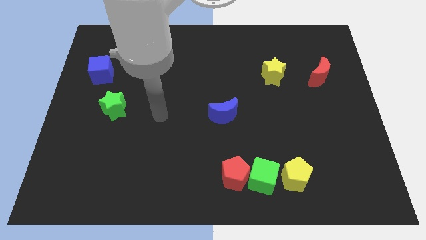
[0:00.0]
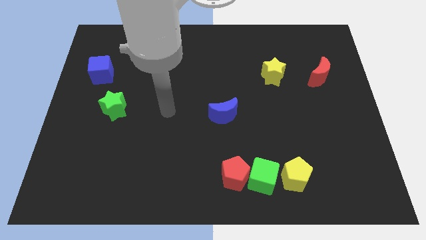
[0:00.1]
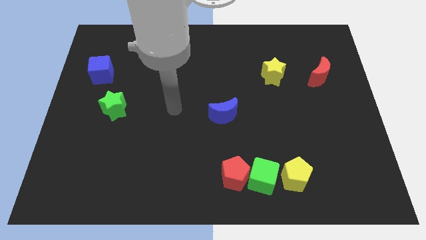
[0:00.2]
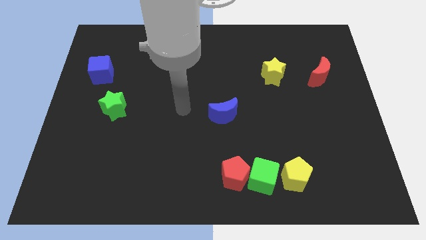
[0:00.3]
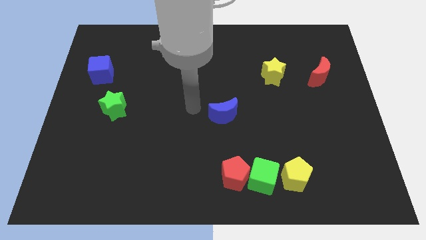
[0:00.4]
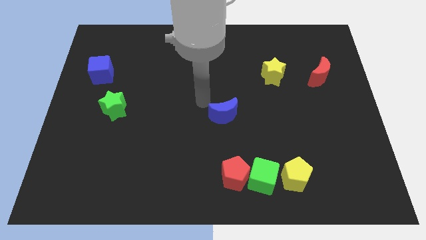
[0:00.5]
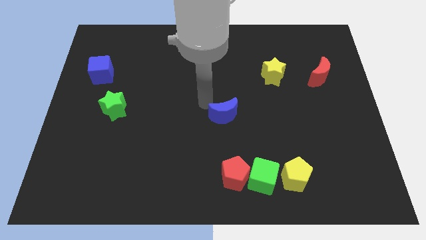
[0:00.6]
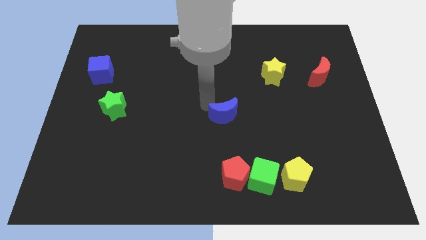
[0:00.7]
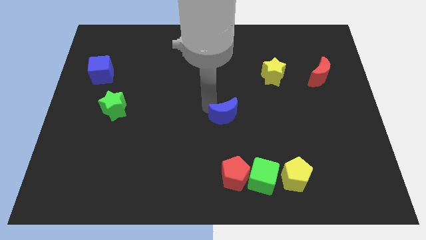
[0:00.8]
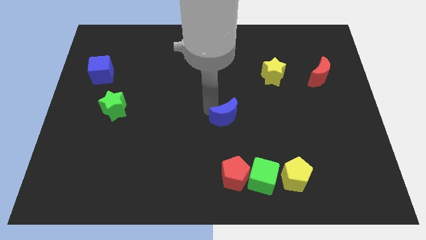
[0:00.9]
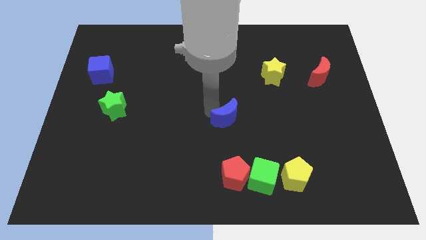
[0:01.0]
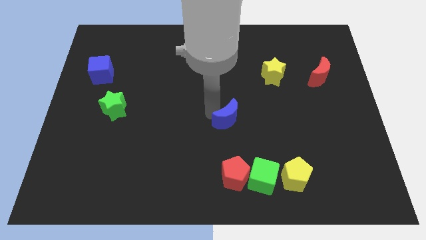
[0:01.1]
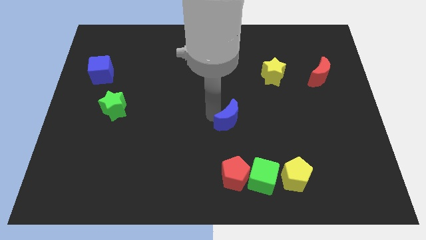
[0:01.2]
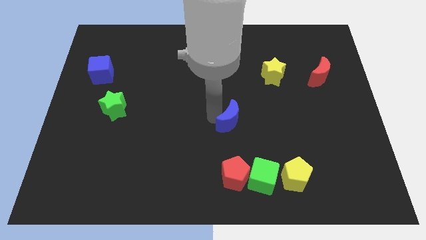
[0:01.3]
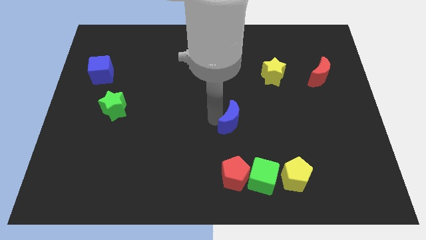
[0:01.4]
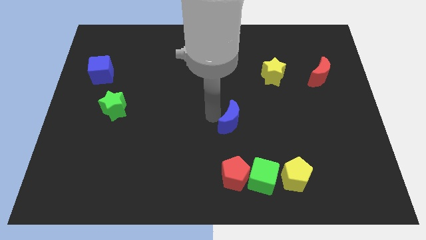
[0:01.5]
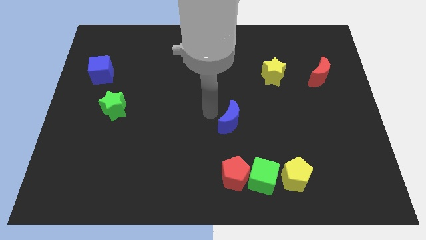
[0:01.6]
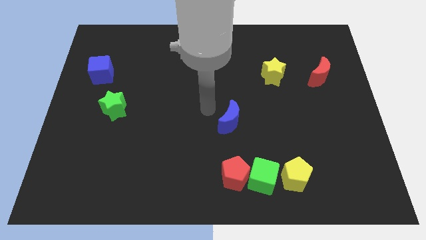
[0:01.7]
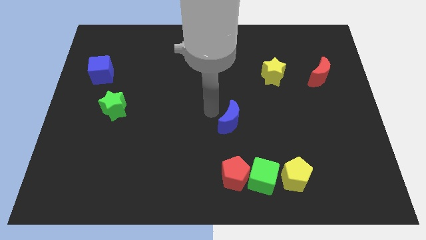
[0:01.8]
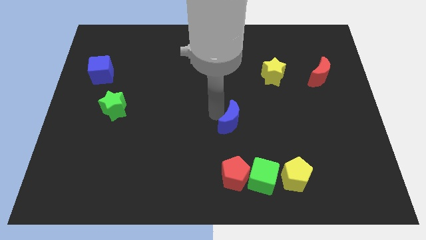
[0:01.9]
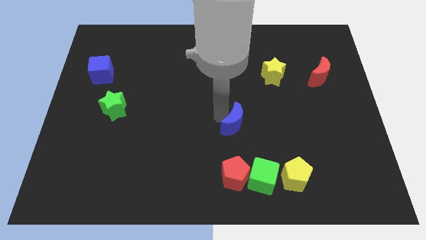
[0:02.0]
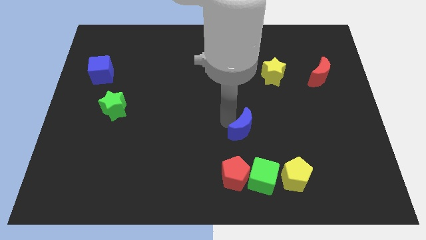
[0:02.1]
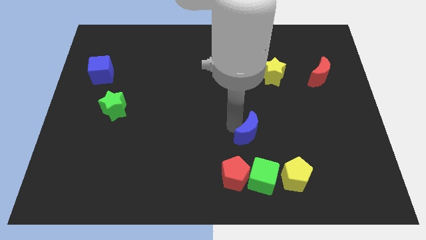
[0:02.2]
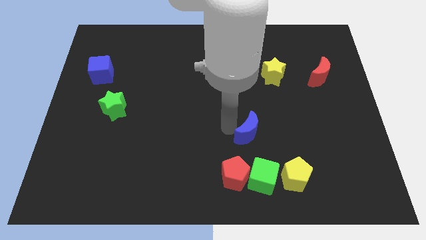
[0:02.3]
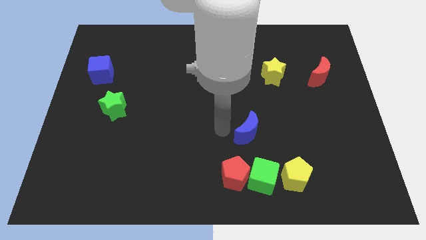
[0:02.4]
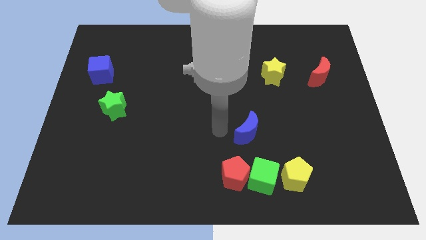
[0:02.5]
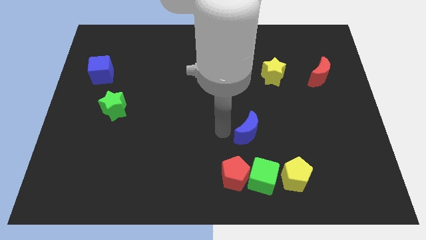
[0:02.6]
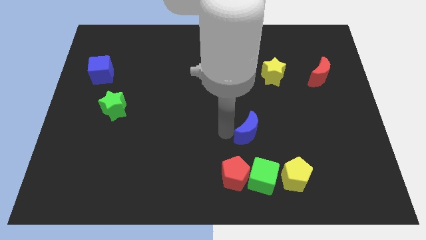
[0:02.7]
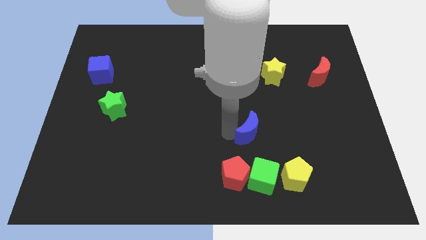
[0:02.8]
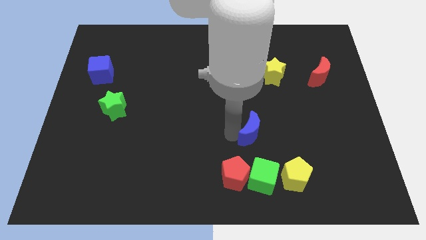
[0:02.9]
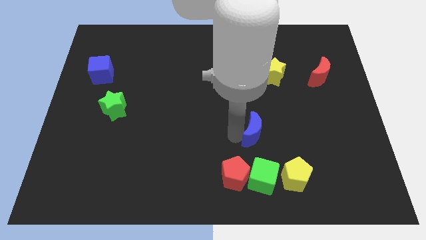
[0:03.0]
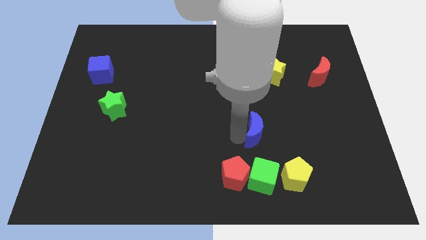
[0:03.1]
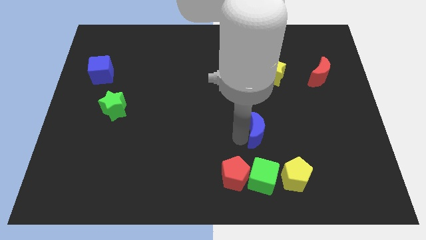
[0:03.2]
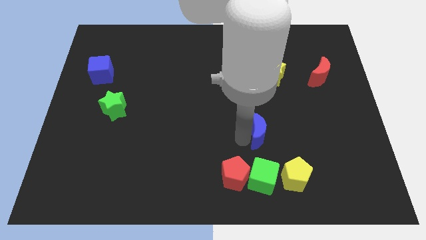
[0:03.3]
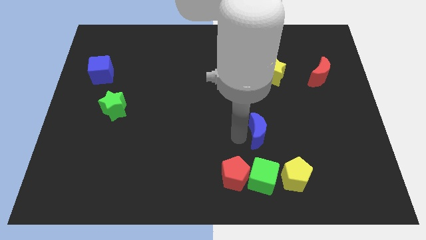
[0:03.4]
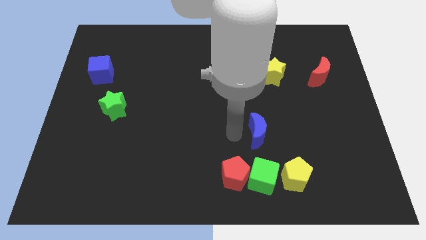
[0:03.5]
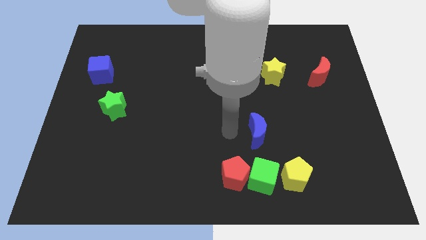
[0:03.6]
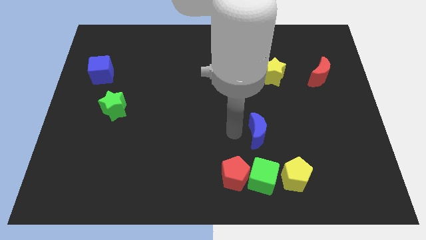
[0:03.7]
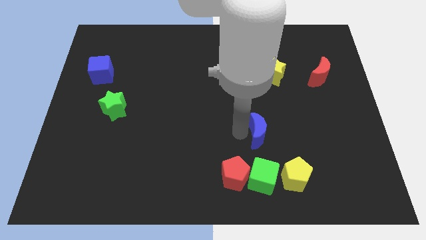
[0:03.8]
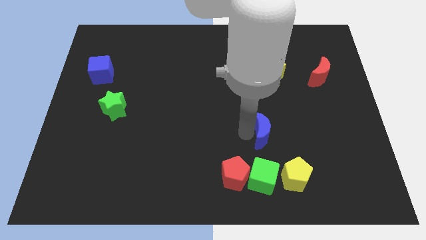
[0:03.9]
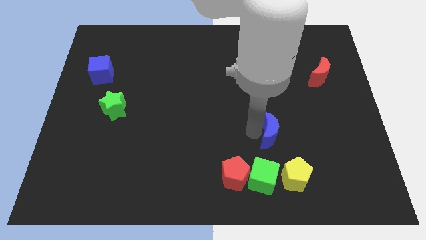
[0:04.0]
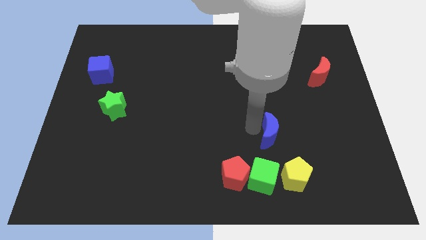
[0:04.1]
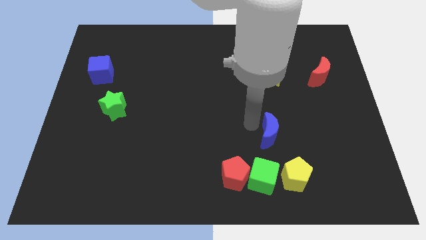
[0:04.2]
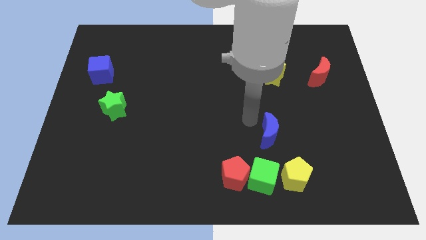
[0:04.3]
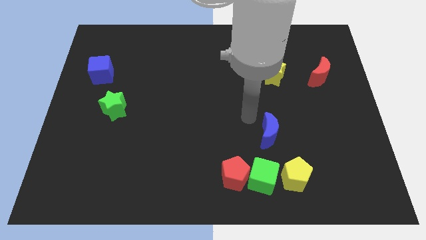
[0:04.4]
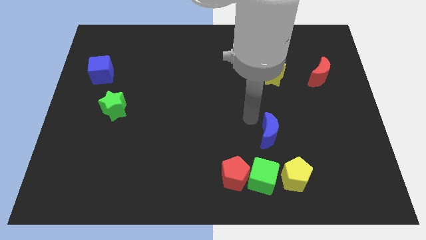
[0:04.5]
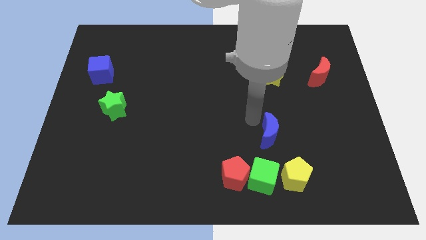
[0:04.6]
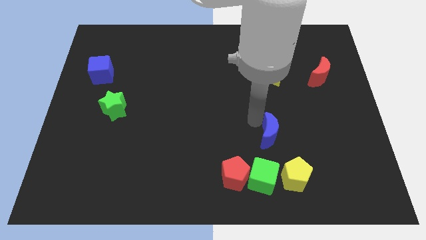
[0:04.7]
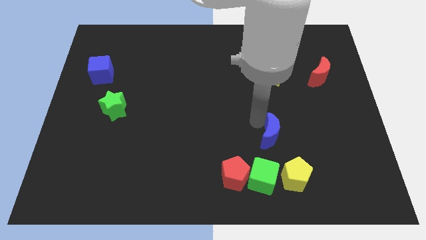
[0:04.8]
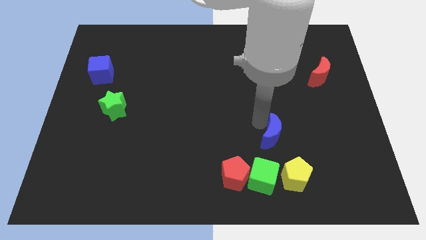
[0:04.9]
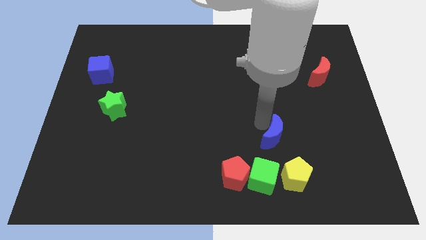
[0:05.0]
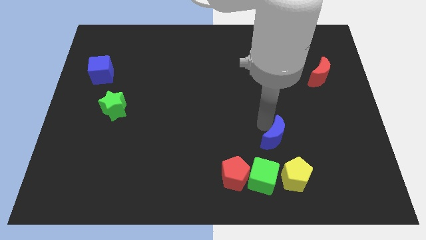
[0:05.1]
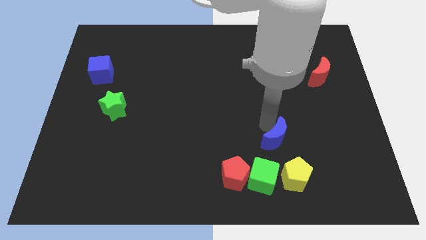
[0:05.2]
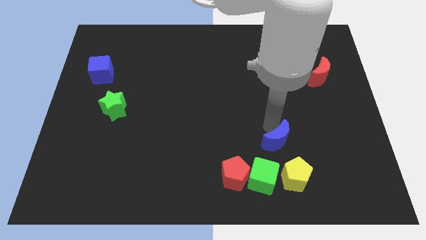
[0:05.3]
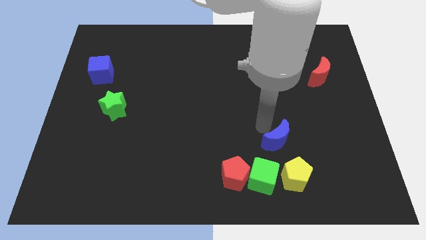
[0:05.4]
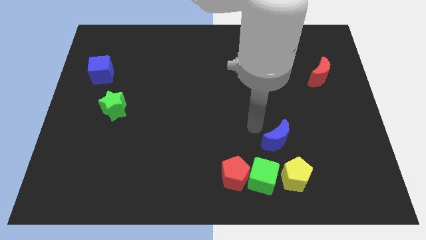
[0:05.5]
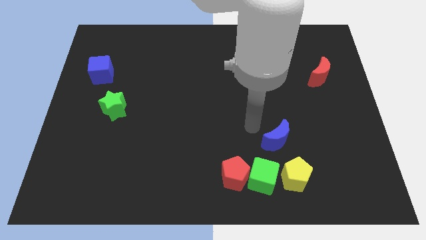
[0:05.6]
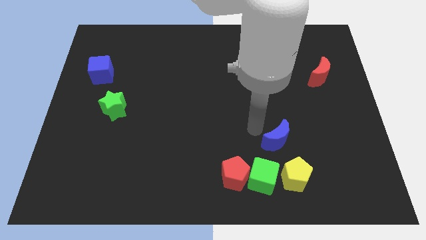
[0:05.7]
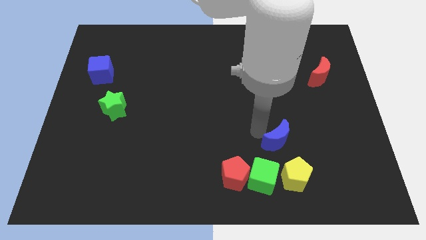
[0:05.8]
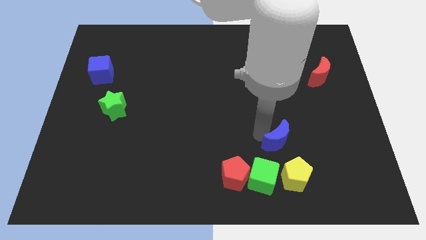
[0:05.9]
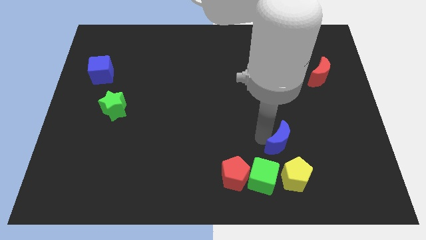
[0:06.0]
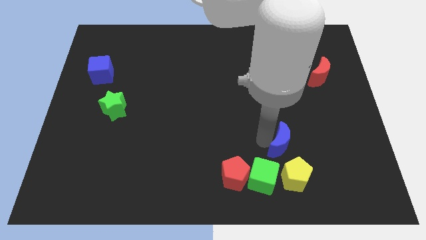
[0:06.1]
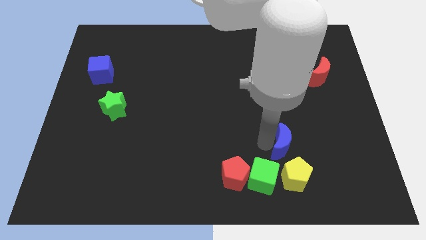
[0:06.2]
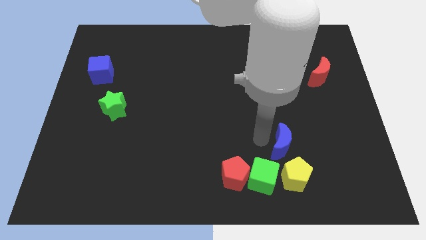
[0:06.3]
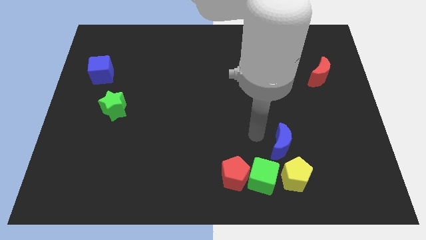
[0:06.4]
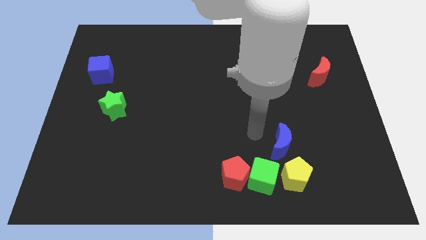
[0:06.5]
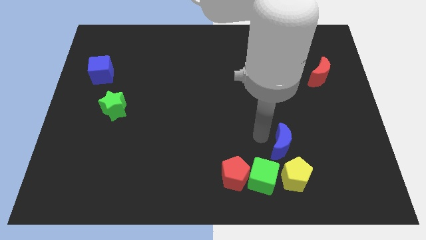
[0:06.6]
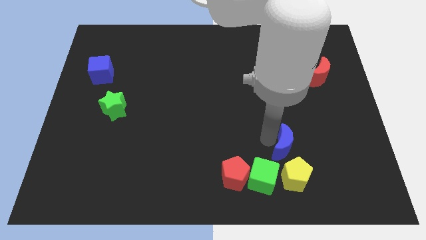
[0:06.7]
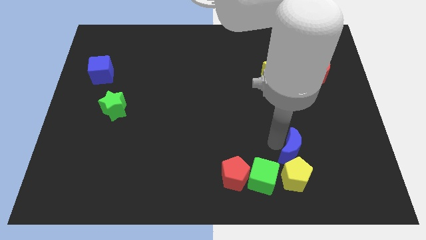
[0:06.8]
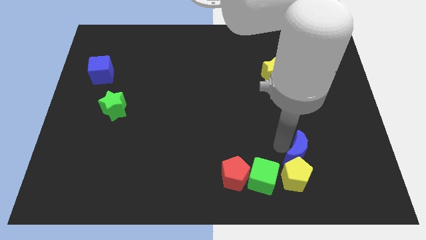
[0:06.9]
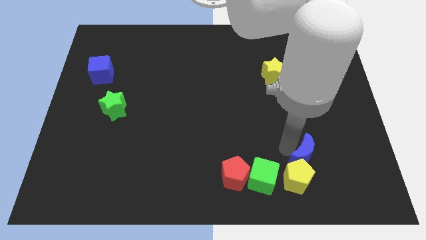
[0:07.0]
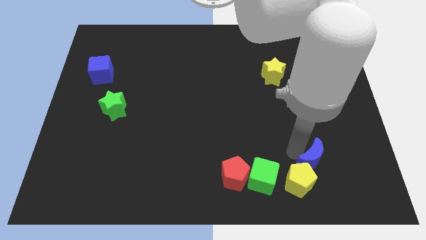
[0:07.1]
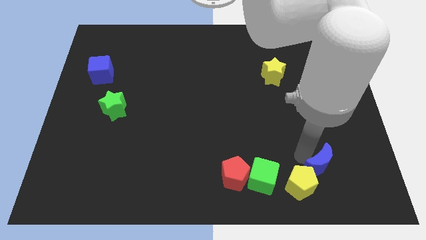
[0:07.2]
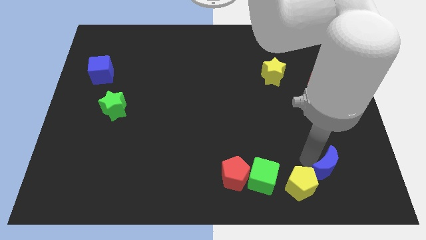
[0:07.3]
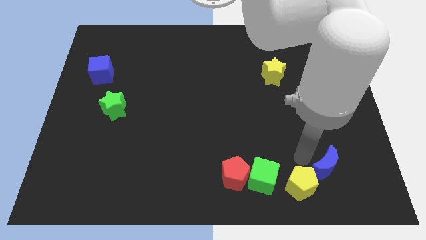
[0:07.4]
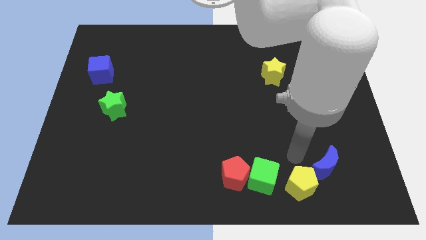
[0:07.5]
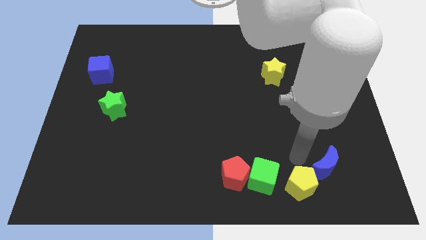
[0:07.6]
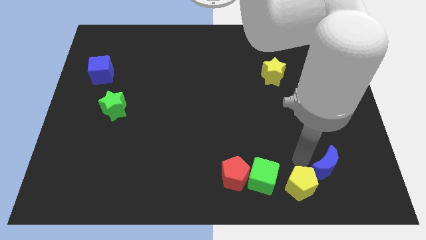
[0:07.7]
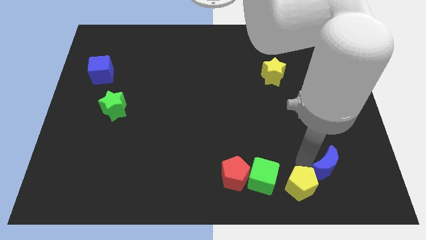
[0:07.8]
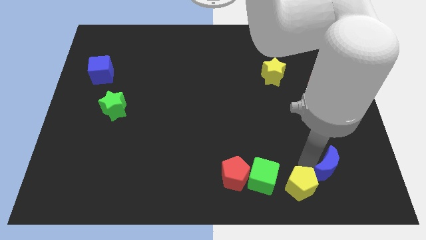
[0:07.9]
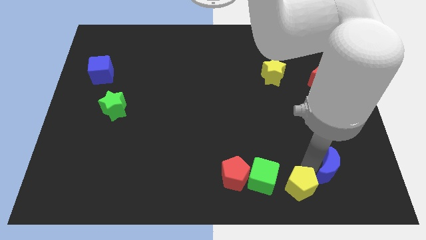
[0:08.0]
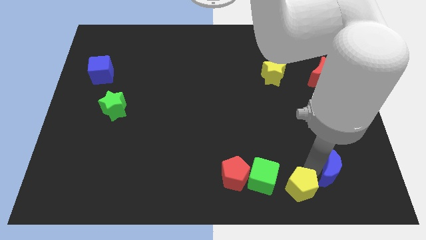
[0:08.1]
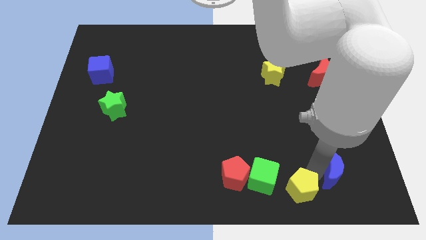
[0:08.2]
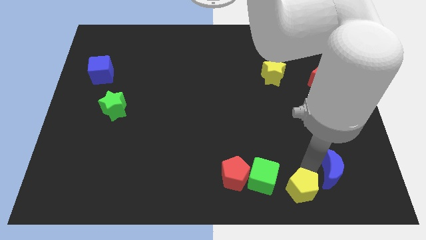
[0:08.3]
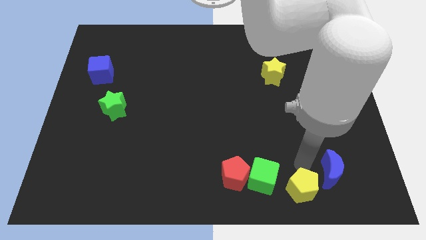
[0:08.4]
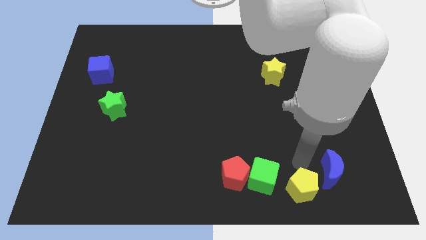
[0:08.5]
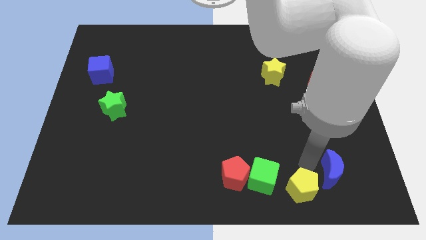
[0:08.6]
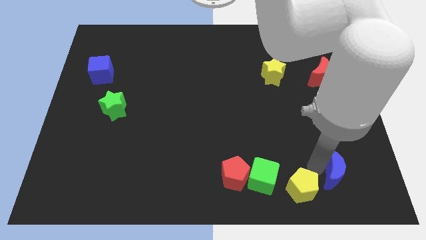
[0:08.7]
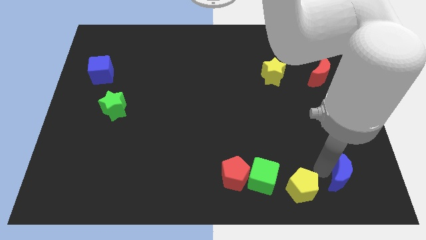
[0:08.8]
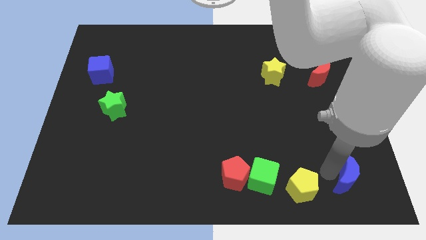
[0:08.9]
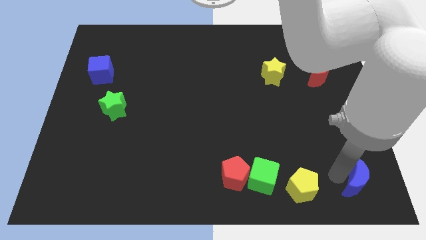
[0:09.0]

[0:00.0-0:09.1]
push the blue moon to the bottom right of the board
